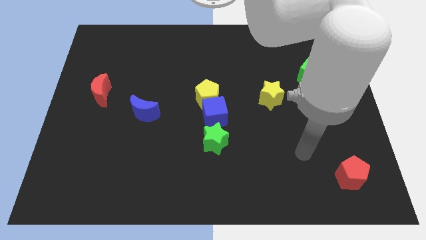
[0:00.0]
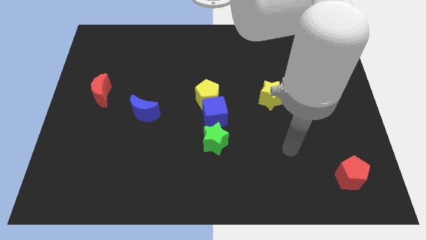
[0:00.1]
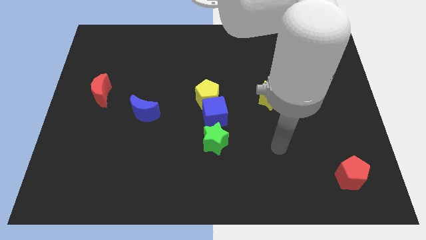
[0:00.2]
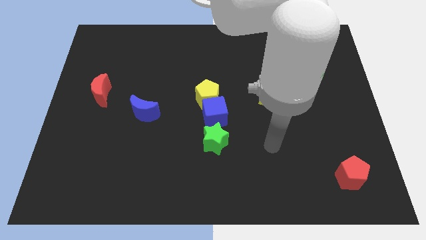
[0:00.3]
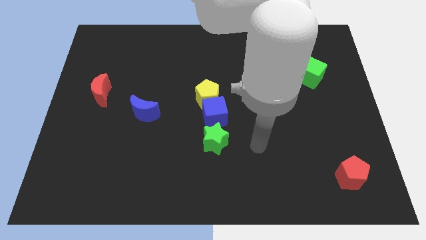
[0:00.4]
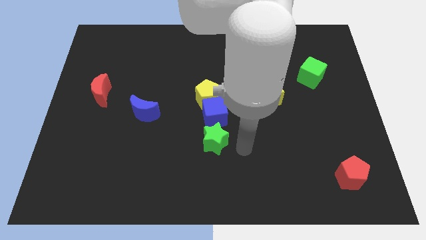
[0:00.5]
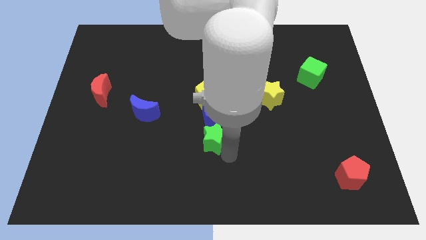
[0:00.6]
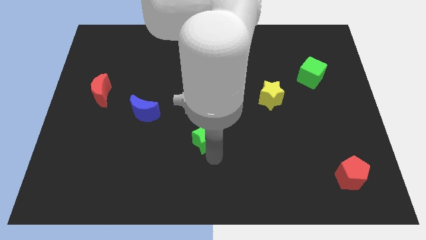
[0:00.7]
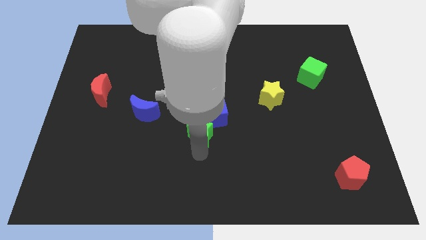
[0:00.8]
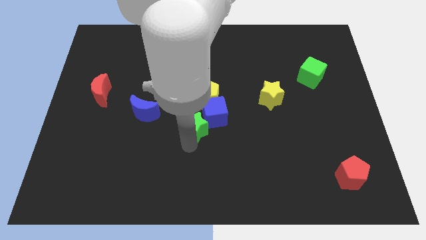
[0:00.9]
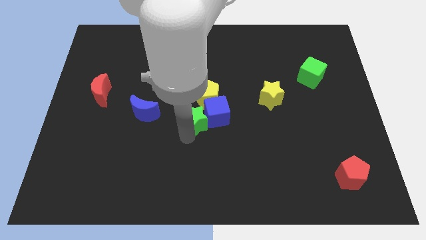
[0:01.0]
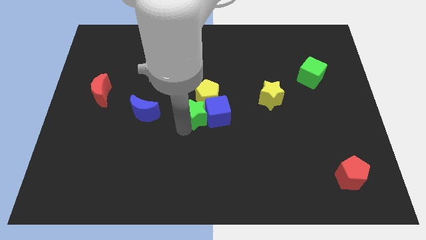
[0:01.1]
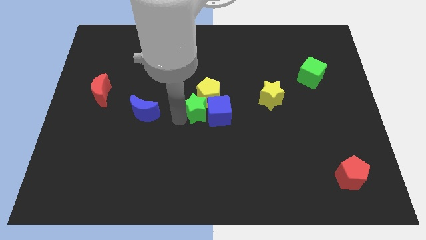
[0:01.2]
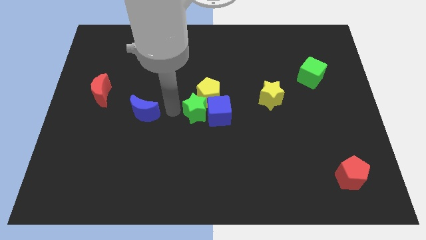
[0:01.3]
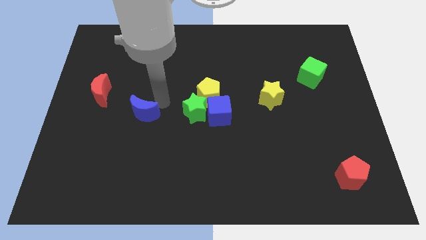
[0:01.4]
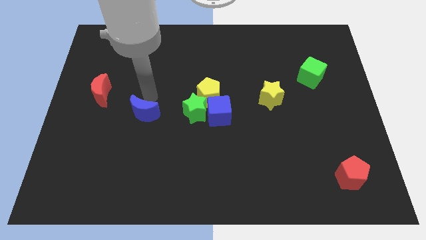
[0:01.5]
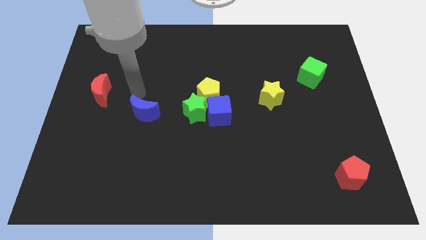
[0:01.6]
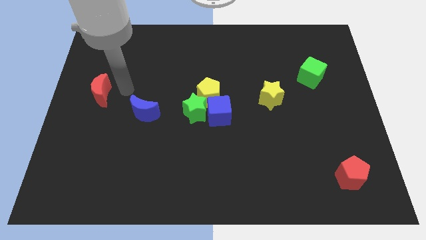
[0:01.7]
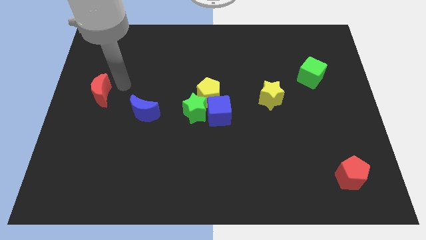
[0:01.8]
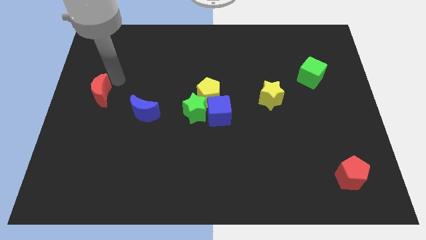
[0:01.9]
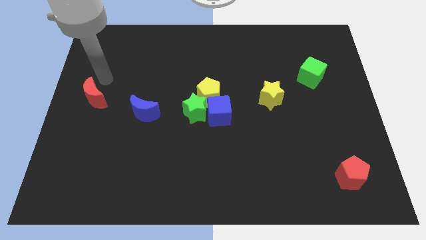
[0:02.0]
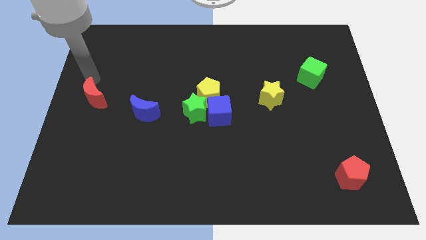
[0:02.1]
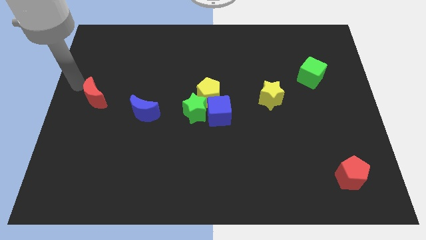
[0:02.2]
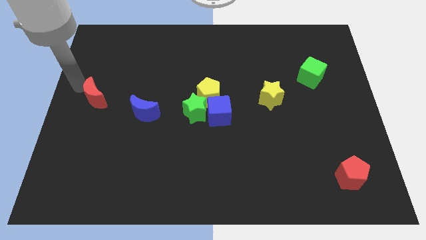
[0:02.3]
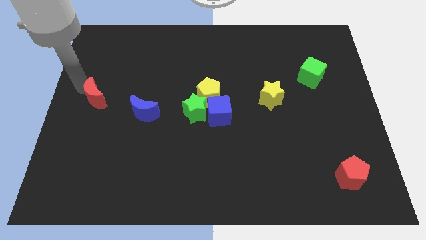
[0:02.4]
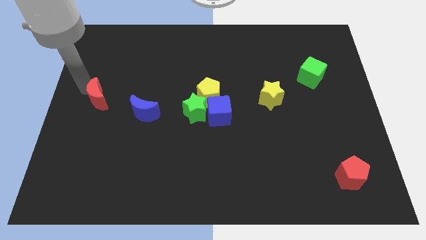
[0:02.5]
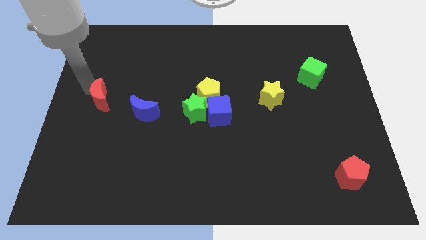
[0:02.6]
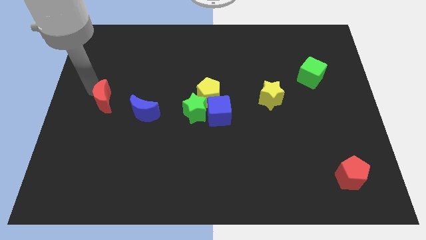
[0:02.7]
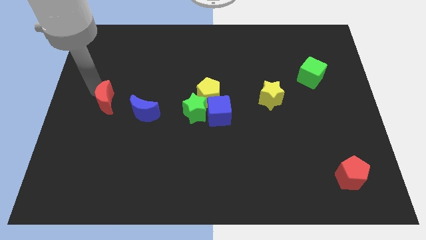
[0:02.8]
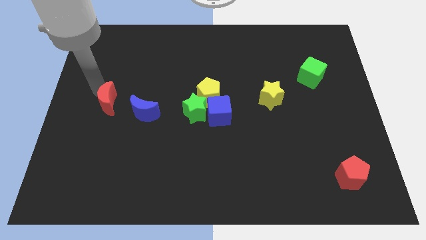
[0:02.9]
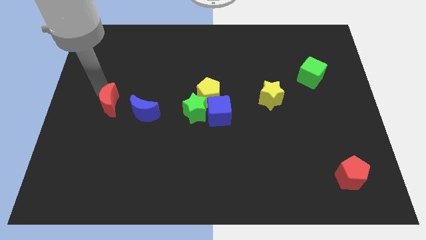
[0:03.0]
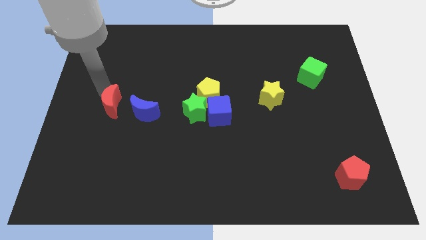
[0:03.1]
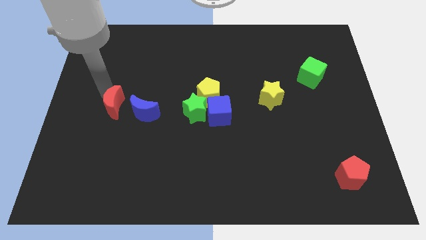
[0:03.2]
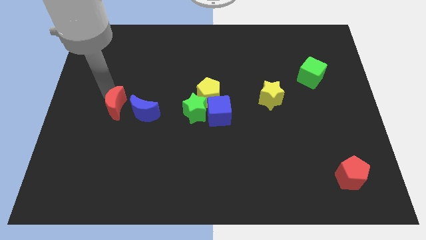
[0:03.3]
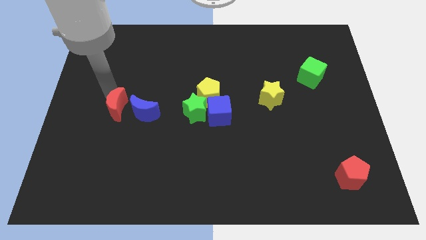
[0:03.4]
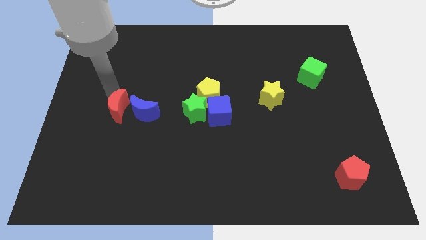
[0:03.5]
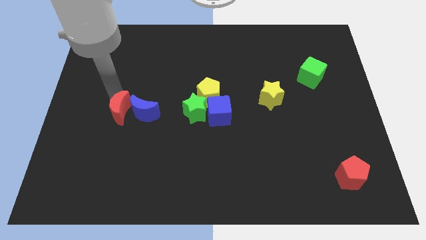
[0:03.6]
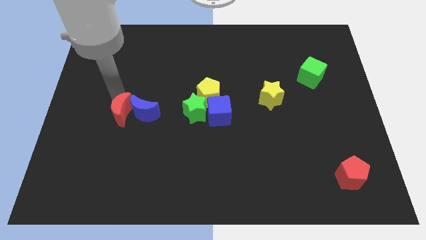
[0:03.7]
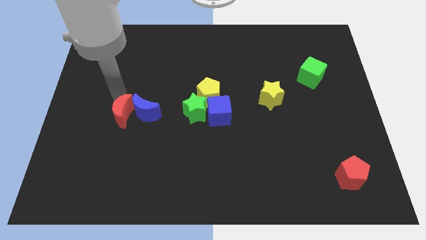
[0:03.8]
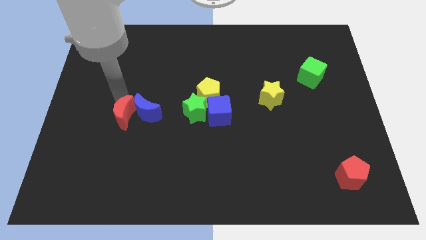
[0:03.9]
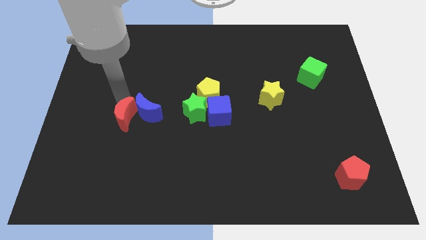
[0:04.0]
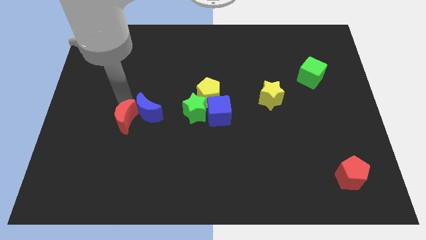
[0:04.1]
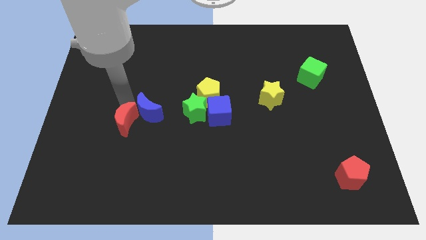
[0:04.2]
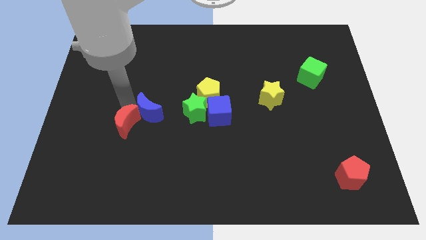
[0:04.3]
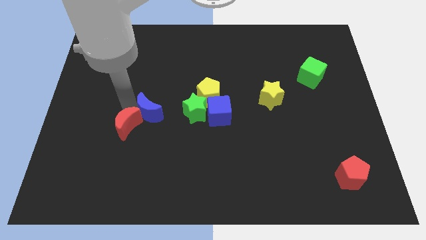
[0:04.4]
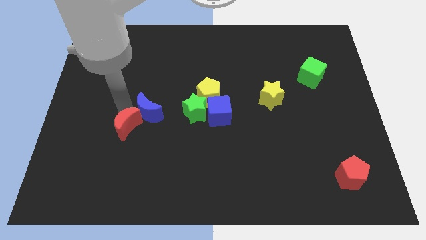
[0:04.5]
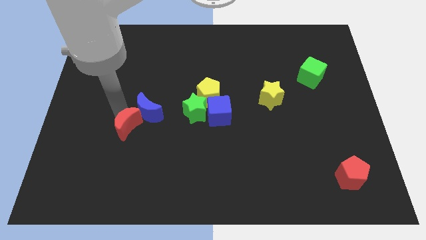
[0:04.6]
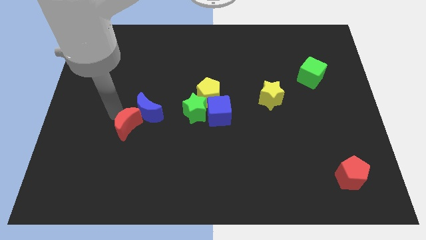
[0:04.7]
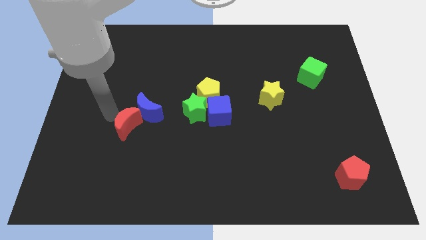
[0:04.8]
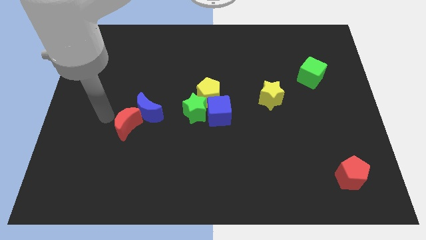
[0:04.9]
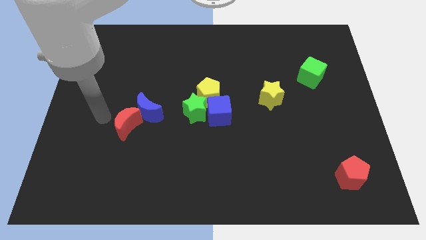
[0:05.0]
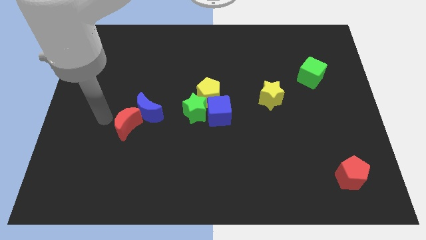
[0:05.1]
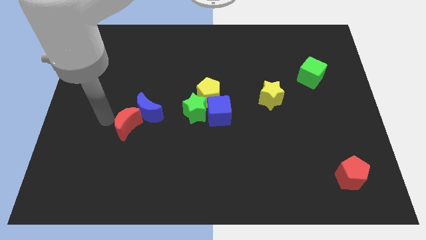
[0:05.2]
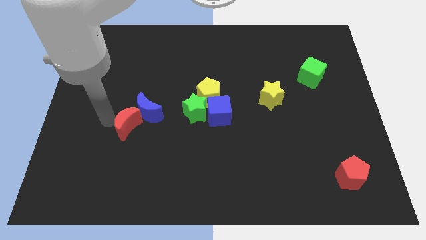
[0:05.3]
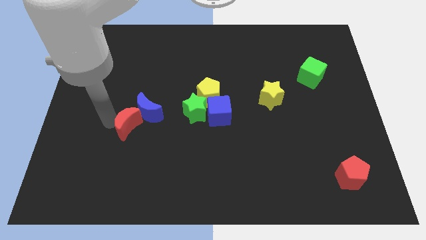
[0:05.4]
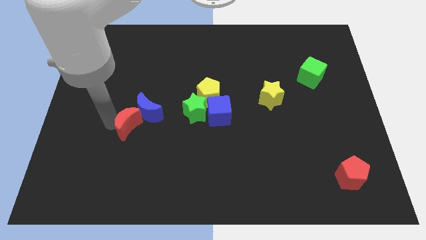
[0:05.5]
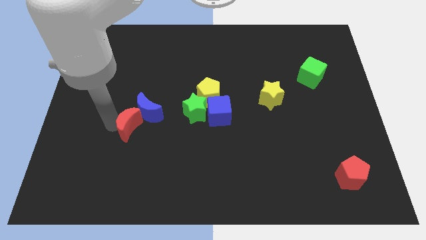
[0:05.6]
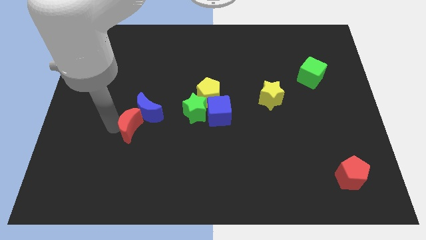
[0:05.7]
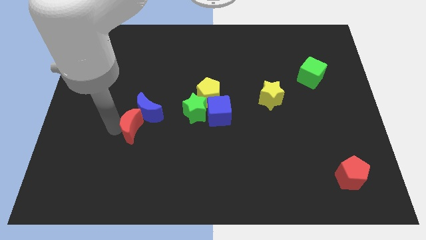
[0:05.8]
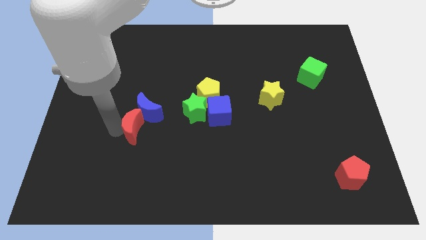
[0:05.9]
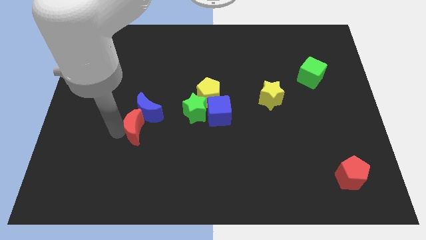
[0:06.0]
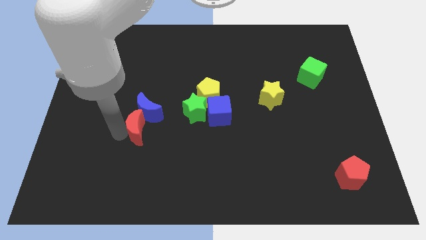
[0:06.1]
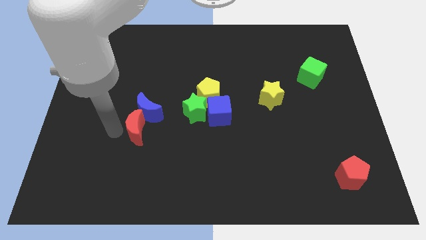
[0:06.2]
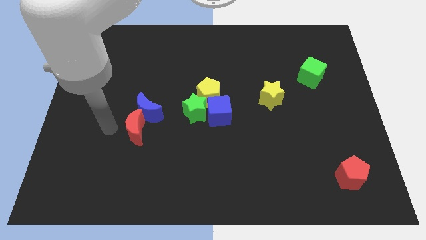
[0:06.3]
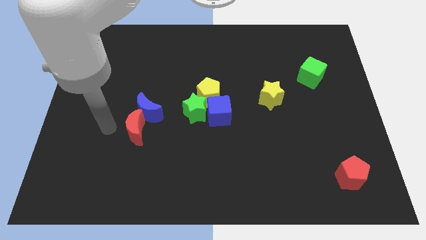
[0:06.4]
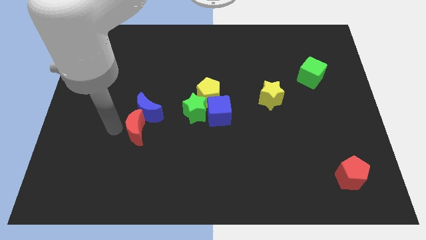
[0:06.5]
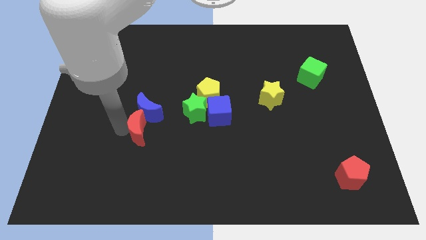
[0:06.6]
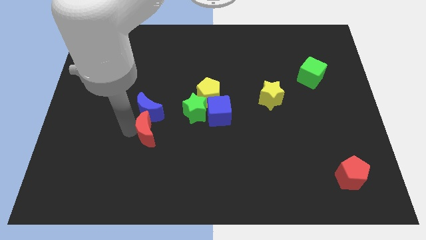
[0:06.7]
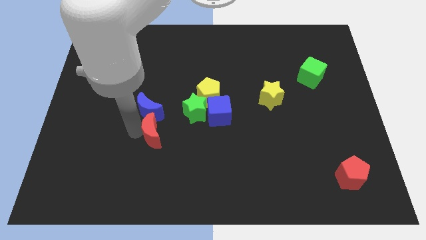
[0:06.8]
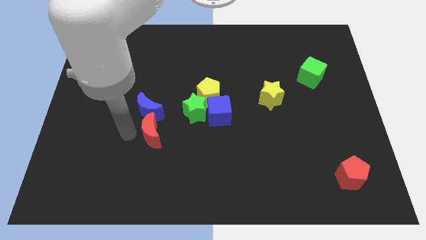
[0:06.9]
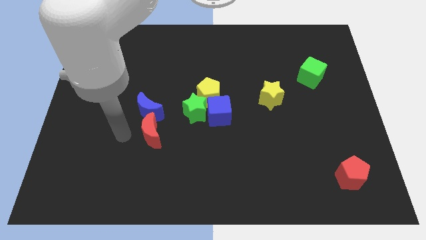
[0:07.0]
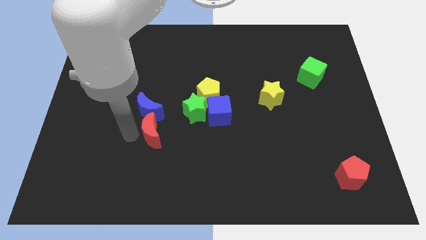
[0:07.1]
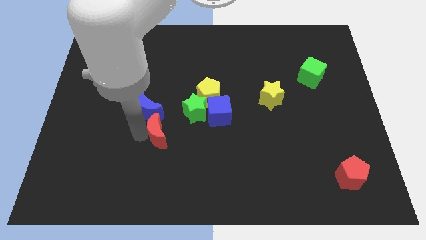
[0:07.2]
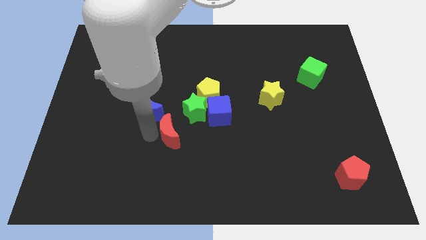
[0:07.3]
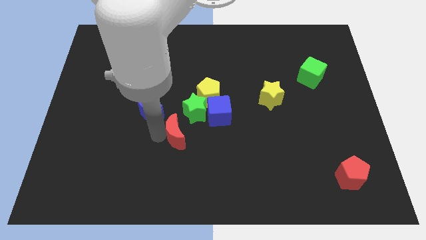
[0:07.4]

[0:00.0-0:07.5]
move the red moon diagonally down and to the left of the blue cube
